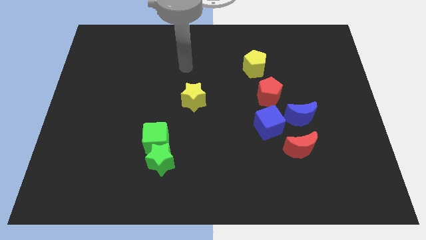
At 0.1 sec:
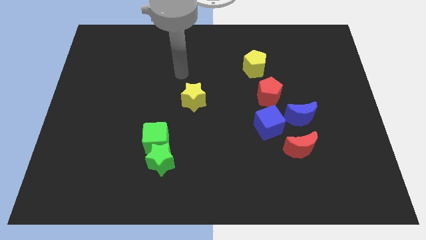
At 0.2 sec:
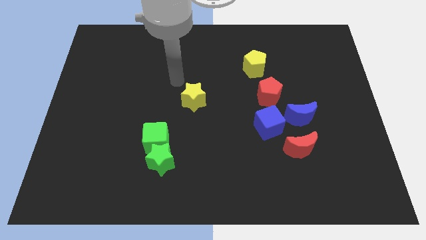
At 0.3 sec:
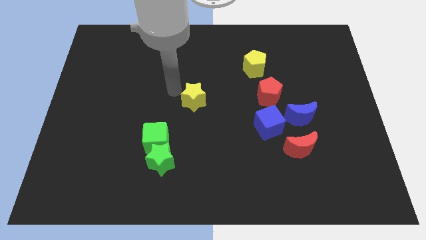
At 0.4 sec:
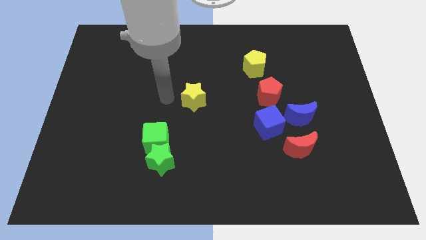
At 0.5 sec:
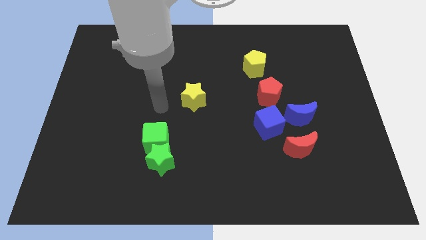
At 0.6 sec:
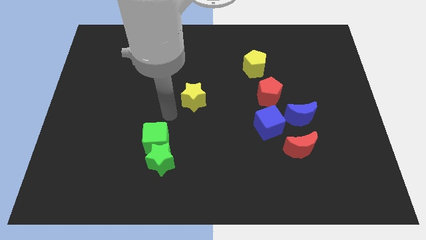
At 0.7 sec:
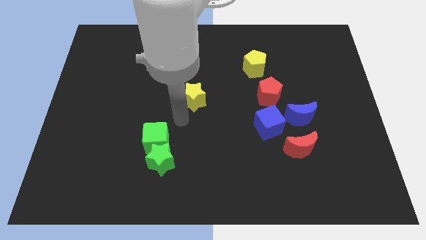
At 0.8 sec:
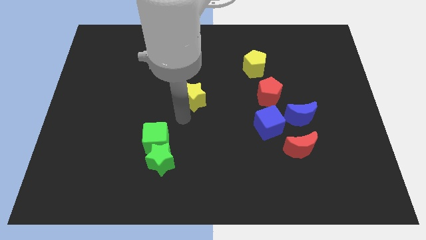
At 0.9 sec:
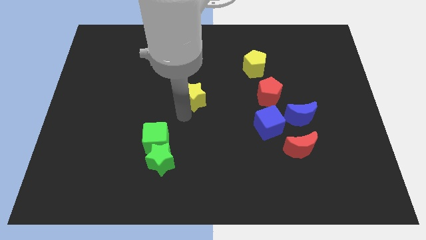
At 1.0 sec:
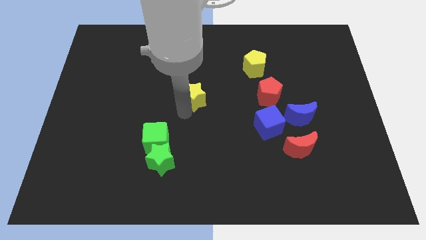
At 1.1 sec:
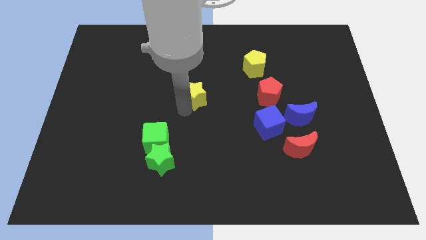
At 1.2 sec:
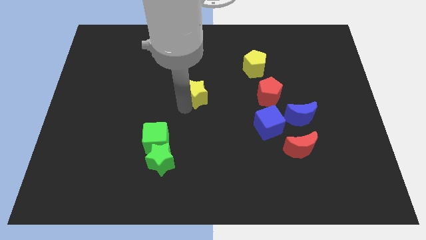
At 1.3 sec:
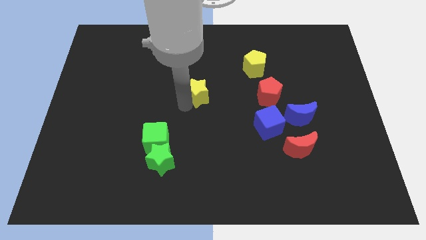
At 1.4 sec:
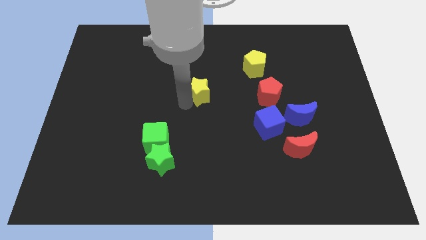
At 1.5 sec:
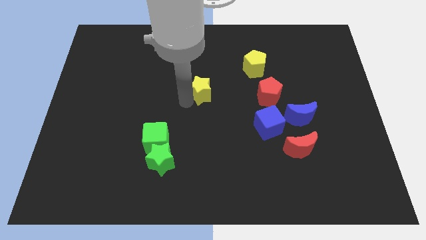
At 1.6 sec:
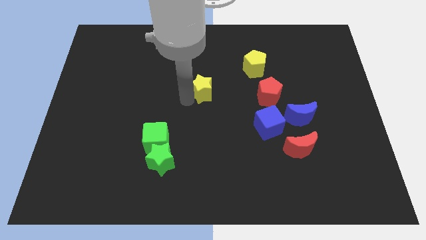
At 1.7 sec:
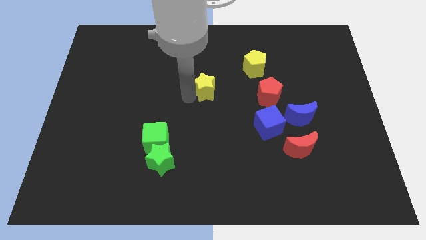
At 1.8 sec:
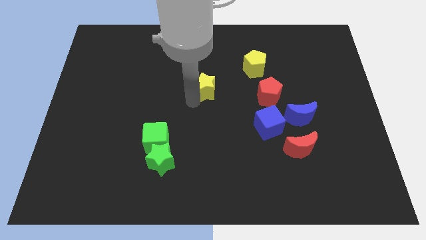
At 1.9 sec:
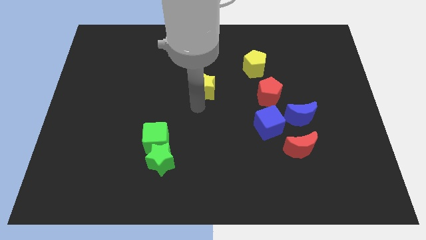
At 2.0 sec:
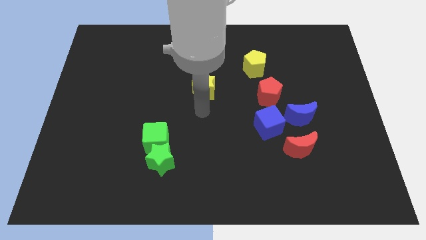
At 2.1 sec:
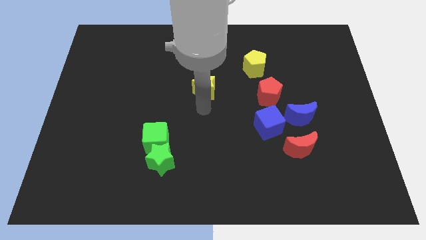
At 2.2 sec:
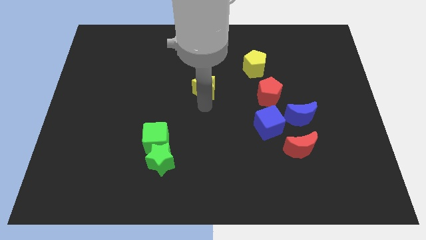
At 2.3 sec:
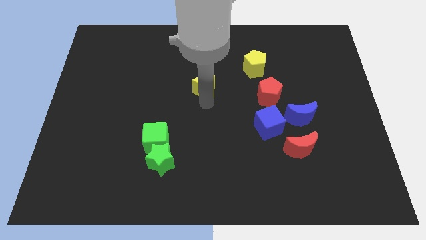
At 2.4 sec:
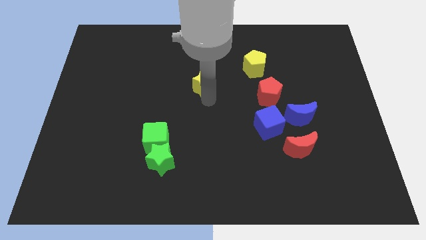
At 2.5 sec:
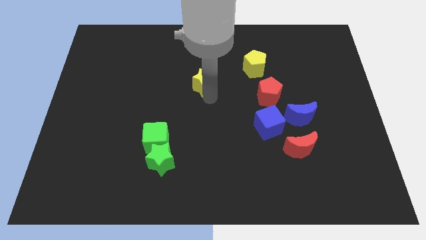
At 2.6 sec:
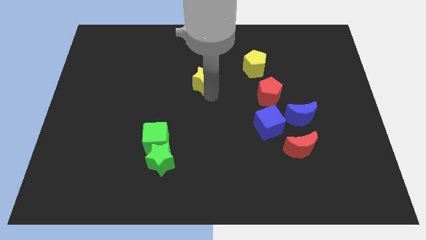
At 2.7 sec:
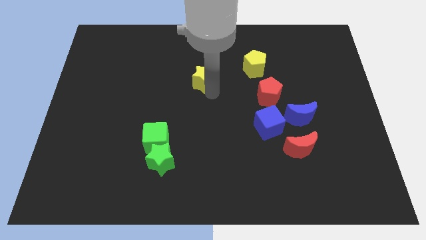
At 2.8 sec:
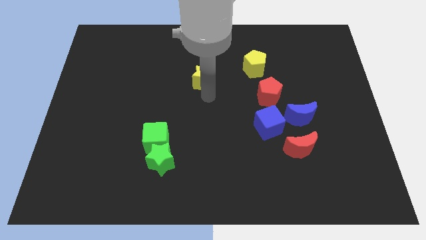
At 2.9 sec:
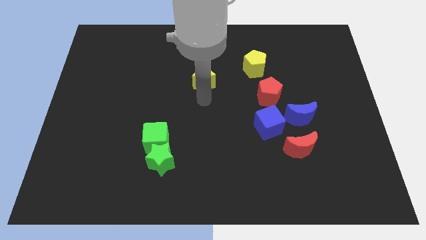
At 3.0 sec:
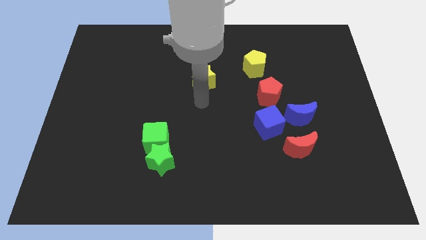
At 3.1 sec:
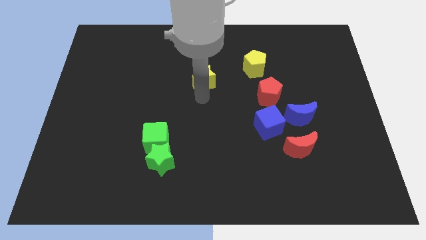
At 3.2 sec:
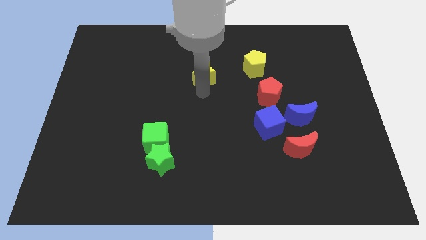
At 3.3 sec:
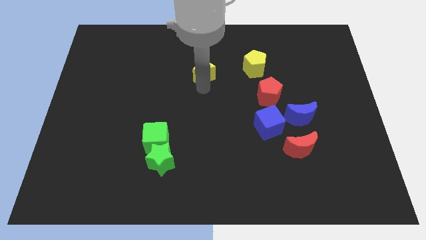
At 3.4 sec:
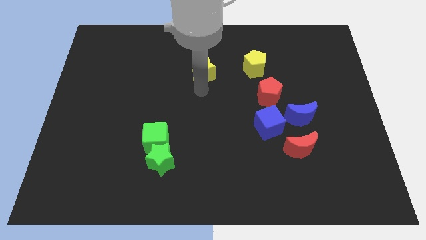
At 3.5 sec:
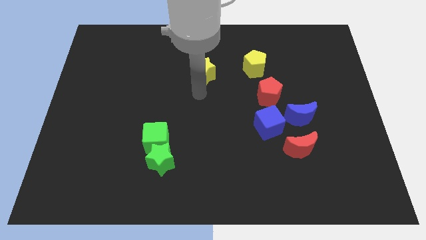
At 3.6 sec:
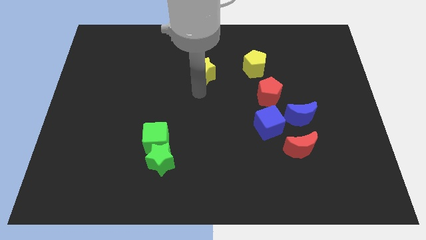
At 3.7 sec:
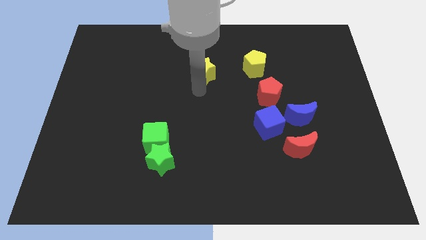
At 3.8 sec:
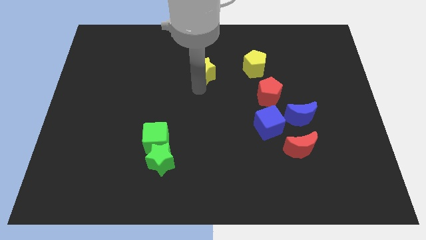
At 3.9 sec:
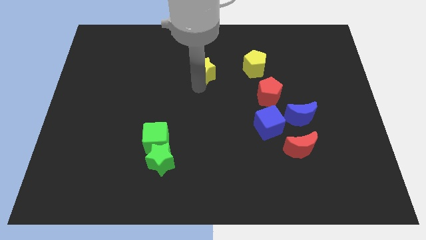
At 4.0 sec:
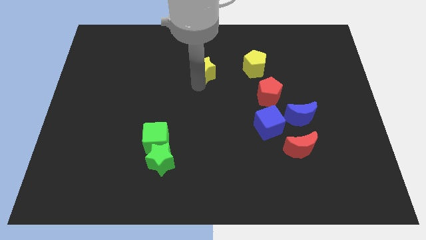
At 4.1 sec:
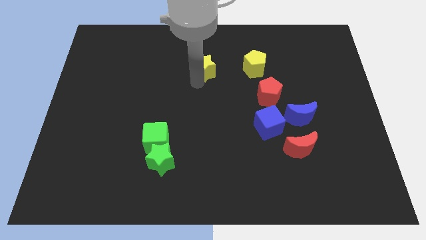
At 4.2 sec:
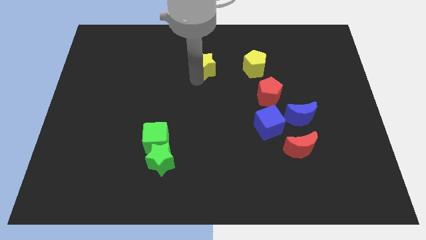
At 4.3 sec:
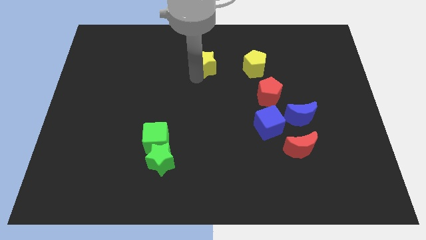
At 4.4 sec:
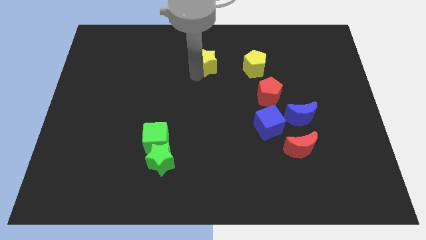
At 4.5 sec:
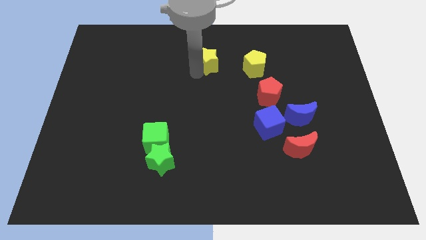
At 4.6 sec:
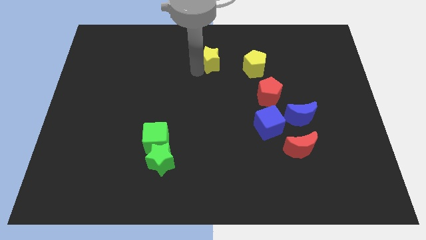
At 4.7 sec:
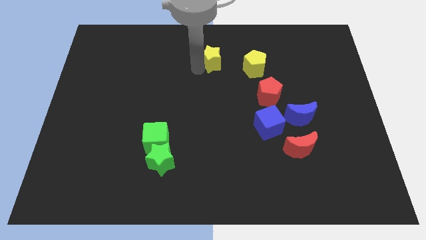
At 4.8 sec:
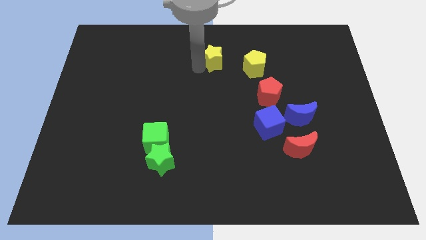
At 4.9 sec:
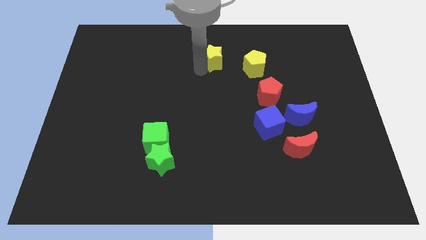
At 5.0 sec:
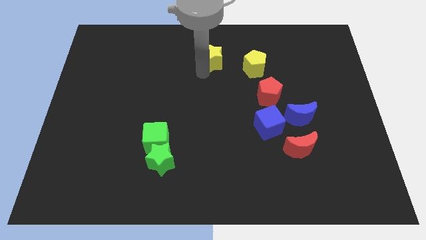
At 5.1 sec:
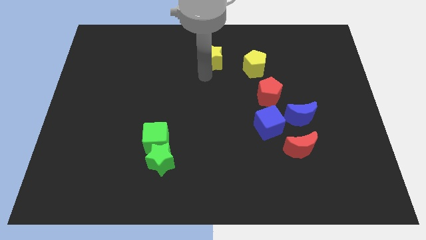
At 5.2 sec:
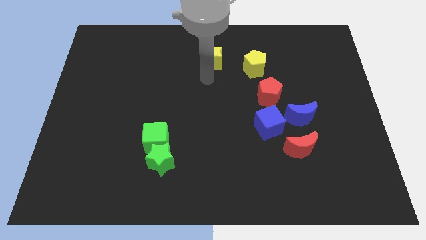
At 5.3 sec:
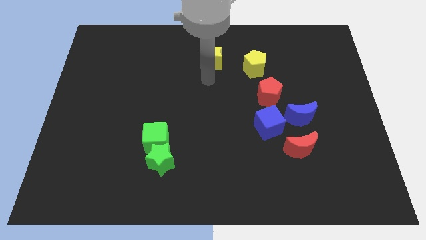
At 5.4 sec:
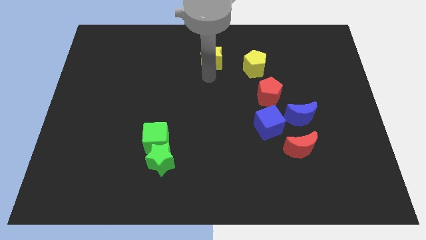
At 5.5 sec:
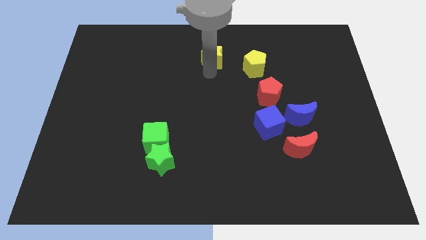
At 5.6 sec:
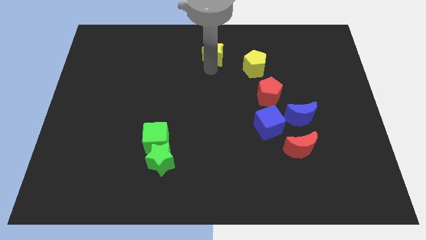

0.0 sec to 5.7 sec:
move the yellow star to the top side

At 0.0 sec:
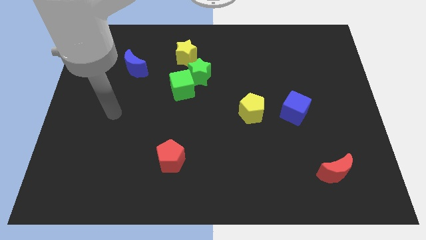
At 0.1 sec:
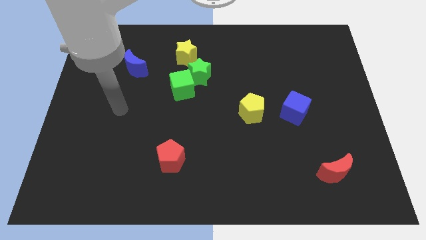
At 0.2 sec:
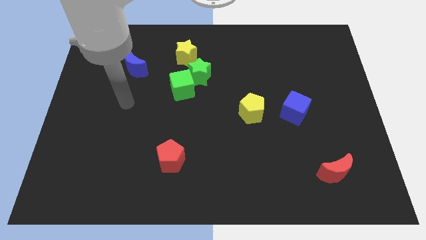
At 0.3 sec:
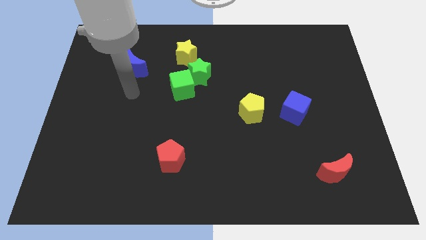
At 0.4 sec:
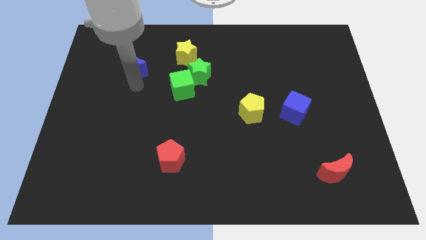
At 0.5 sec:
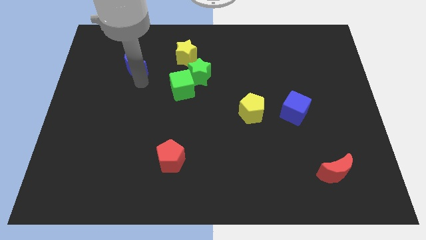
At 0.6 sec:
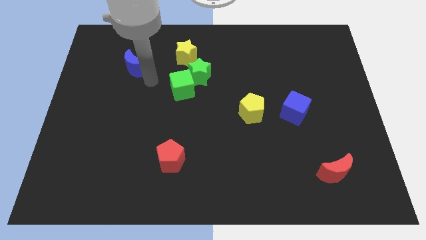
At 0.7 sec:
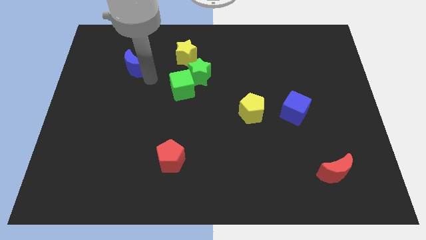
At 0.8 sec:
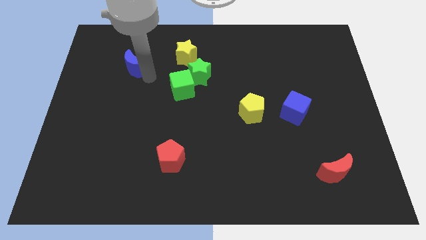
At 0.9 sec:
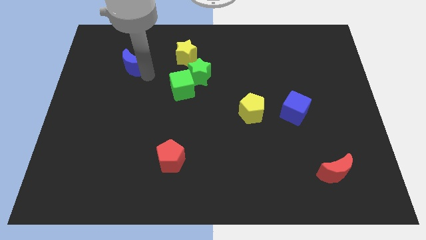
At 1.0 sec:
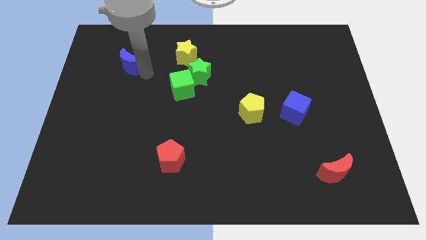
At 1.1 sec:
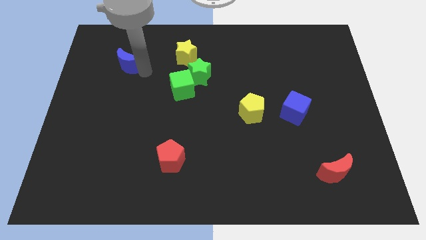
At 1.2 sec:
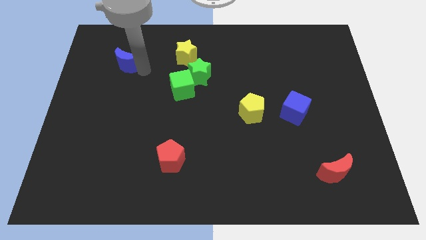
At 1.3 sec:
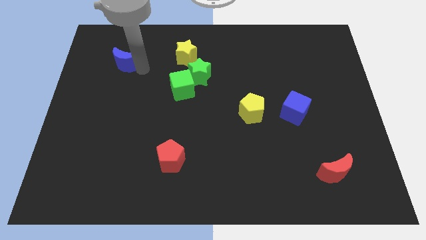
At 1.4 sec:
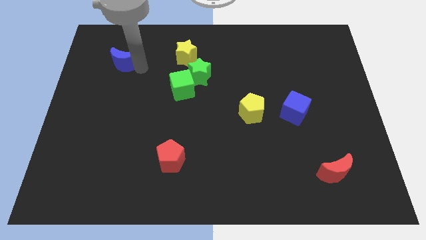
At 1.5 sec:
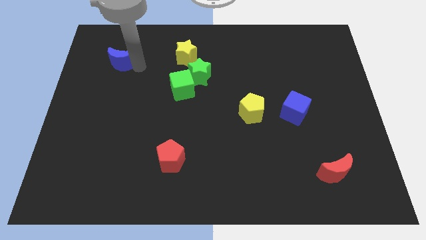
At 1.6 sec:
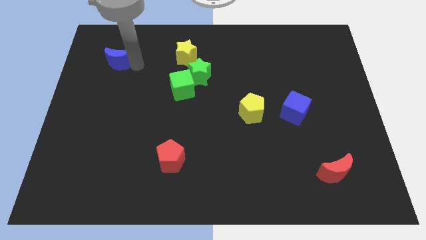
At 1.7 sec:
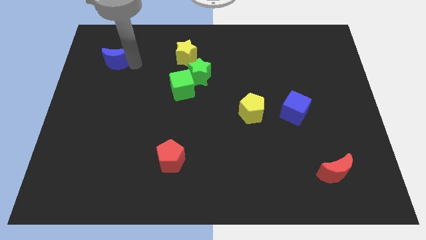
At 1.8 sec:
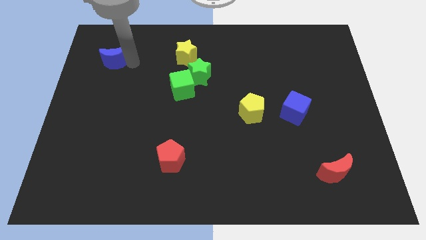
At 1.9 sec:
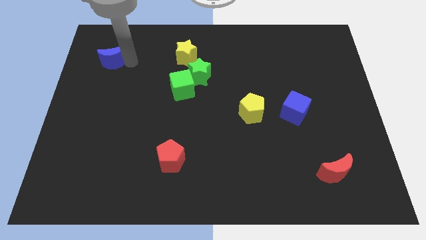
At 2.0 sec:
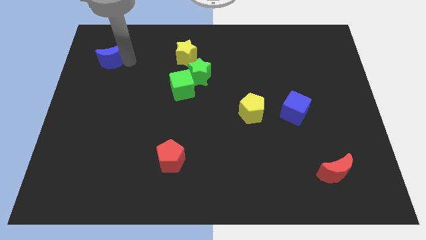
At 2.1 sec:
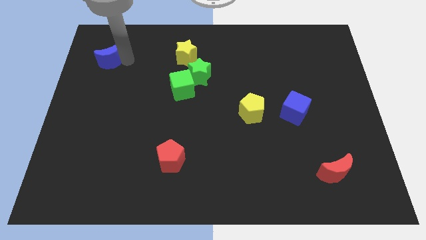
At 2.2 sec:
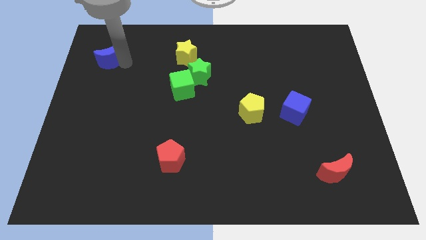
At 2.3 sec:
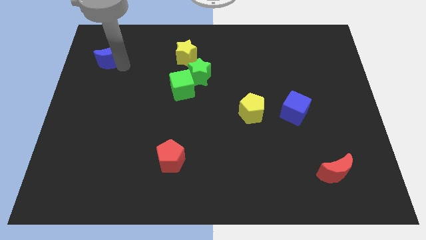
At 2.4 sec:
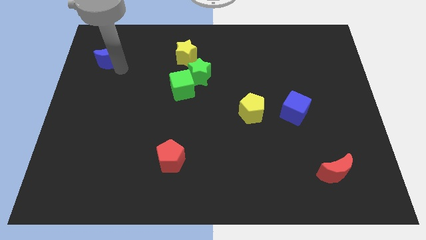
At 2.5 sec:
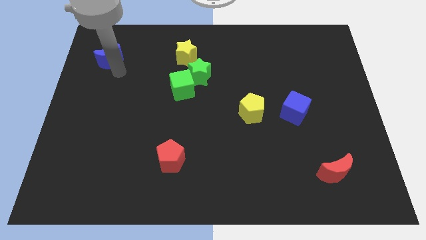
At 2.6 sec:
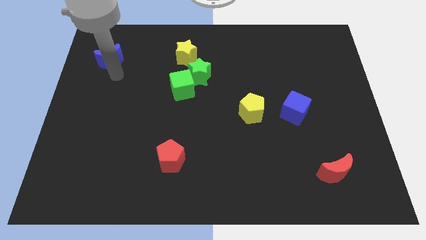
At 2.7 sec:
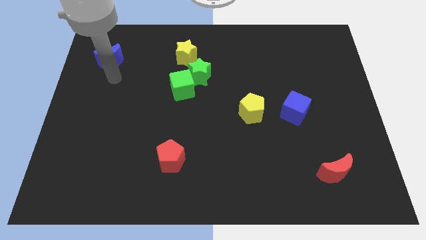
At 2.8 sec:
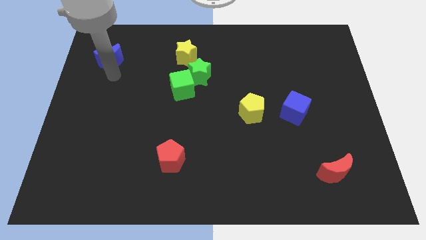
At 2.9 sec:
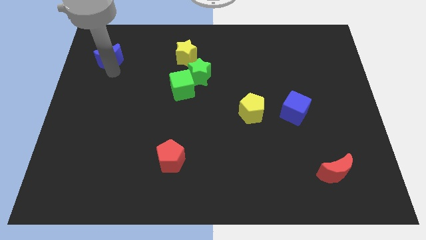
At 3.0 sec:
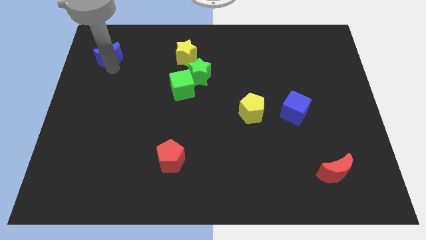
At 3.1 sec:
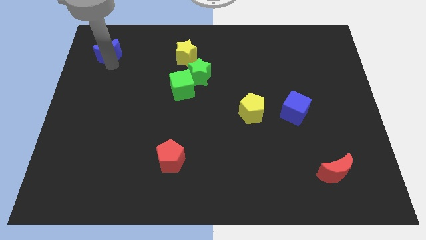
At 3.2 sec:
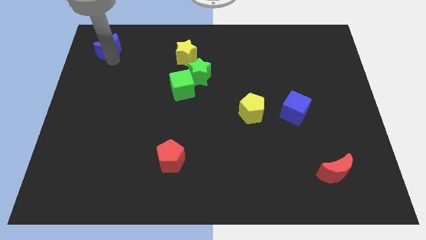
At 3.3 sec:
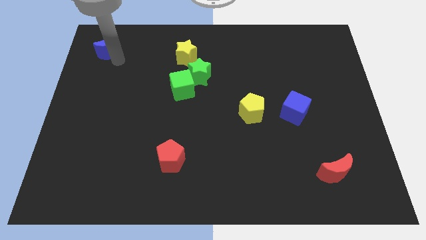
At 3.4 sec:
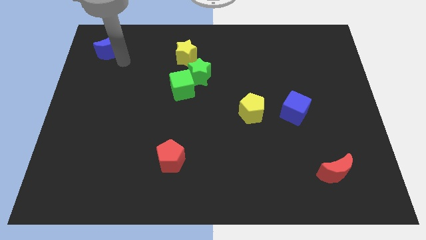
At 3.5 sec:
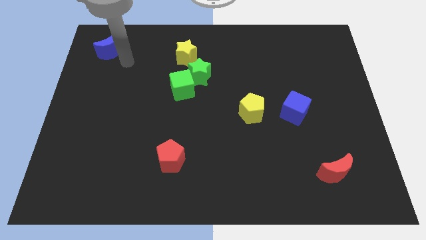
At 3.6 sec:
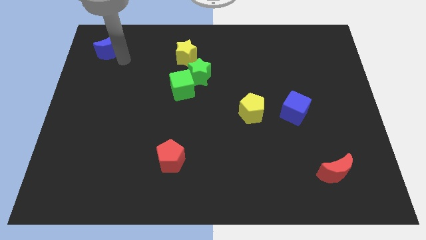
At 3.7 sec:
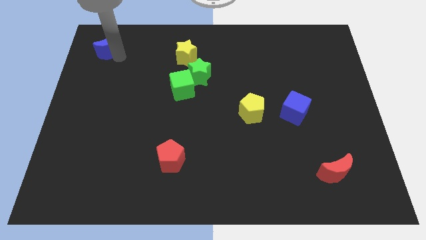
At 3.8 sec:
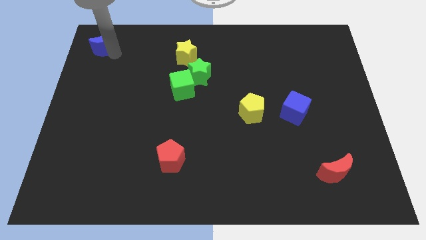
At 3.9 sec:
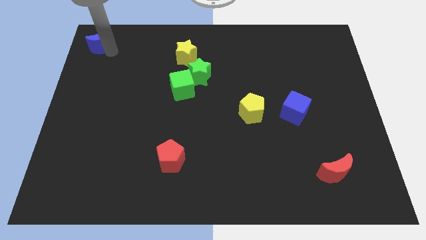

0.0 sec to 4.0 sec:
put the blue moon to the top left corner
